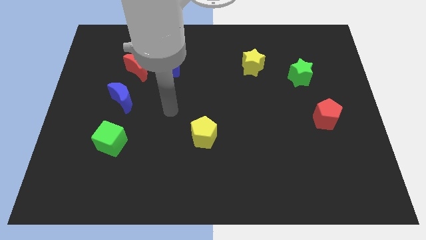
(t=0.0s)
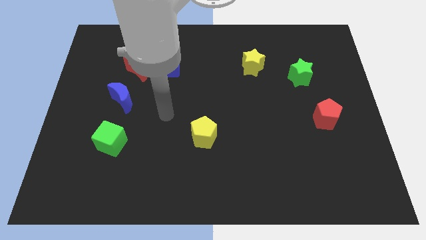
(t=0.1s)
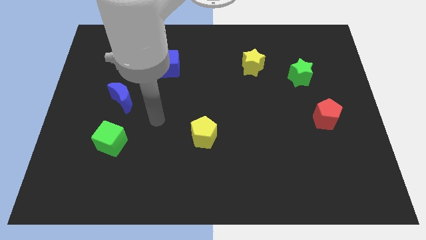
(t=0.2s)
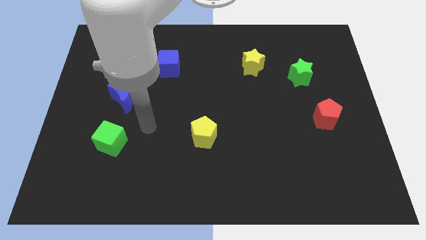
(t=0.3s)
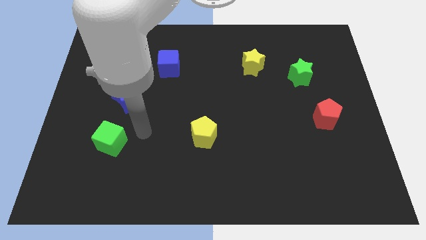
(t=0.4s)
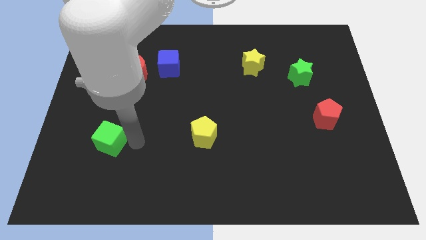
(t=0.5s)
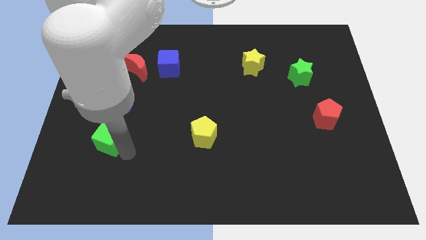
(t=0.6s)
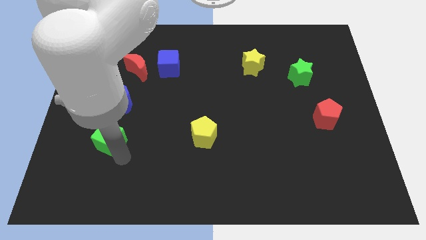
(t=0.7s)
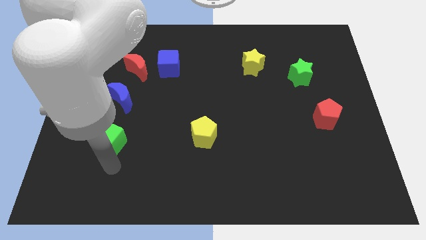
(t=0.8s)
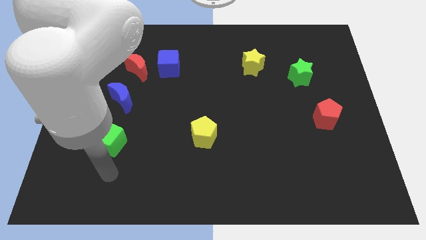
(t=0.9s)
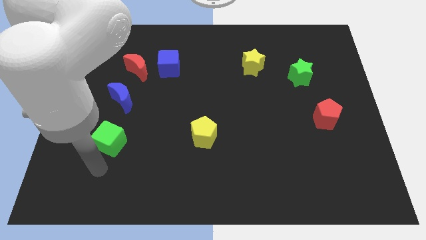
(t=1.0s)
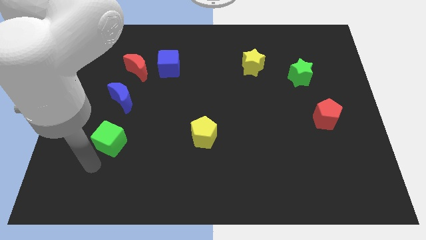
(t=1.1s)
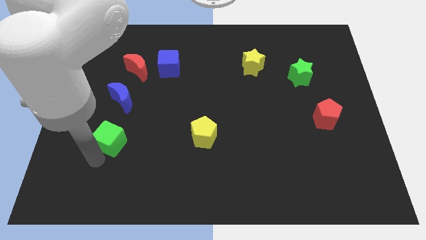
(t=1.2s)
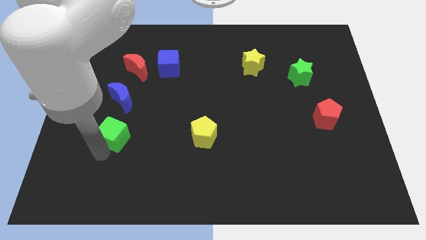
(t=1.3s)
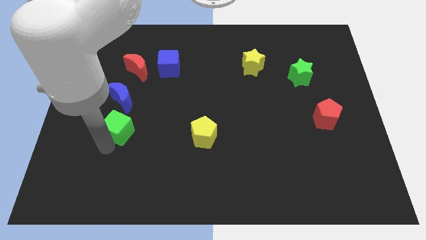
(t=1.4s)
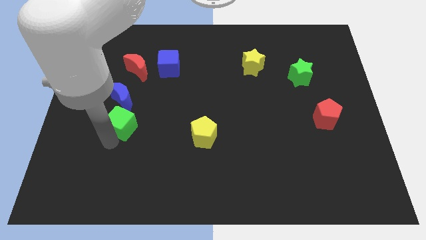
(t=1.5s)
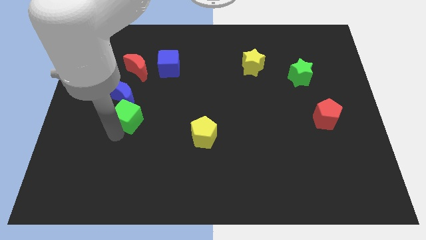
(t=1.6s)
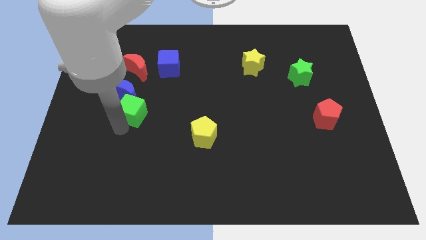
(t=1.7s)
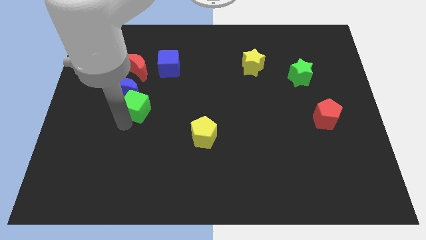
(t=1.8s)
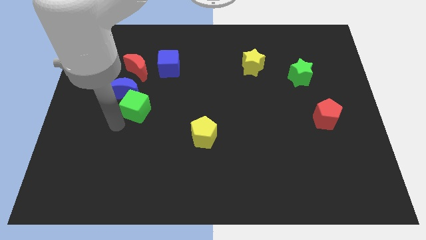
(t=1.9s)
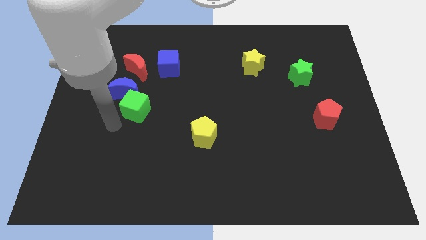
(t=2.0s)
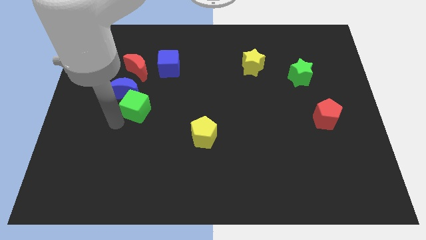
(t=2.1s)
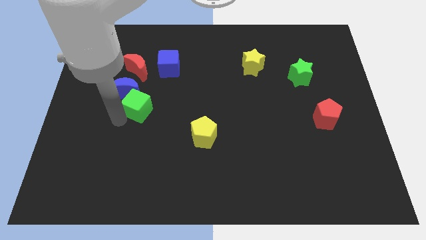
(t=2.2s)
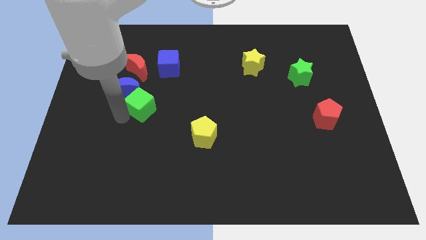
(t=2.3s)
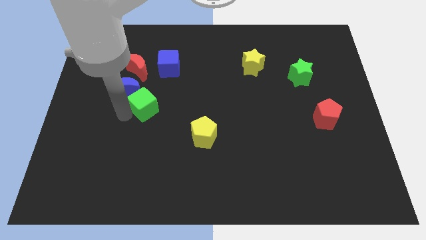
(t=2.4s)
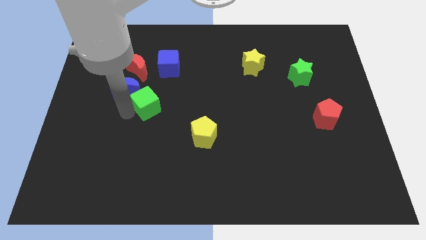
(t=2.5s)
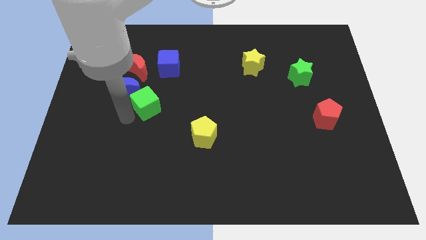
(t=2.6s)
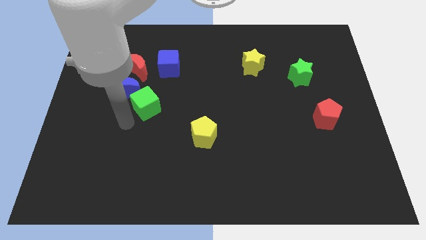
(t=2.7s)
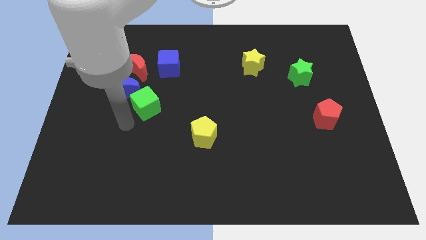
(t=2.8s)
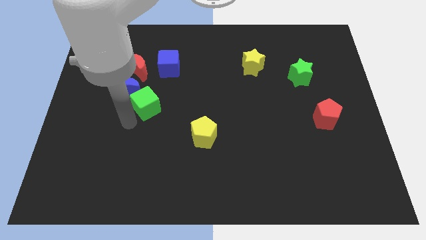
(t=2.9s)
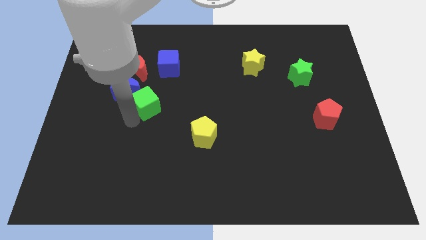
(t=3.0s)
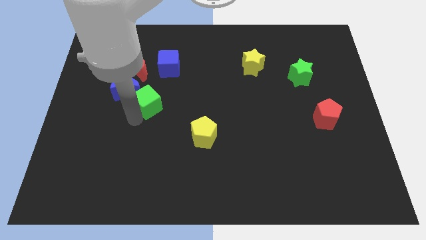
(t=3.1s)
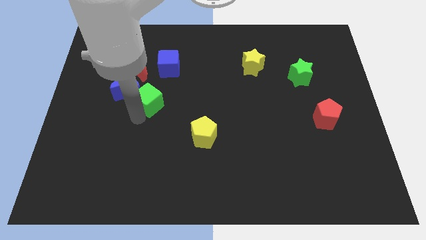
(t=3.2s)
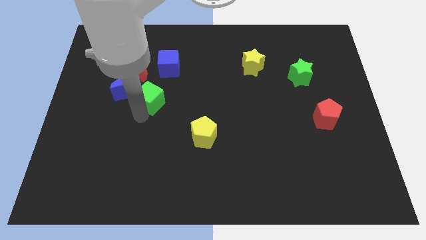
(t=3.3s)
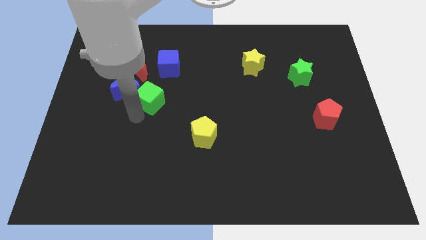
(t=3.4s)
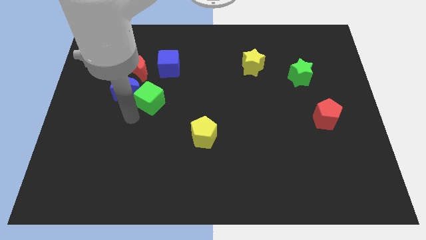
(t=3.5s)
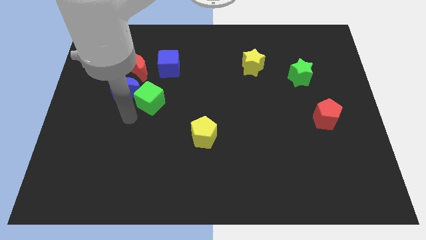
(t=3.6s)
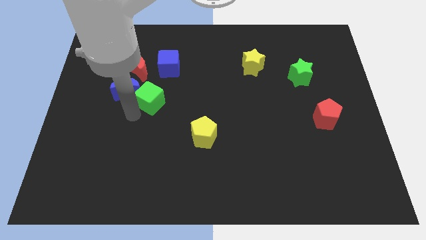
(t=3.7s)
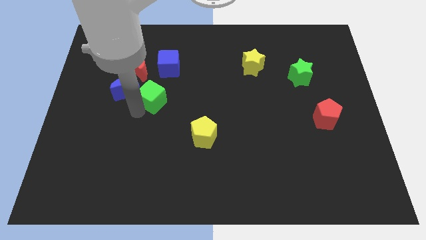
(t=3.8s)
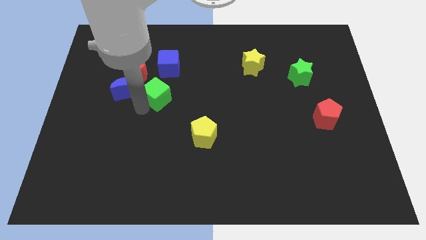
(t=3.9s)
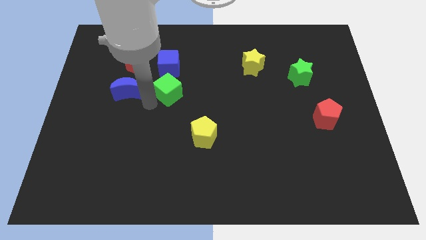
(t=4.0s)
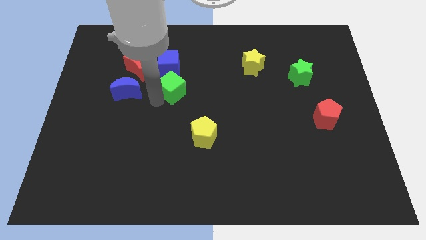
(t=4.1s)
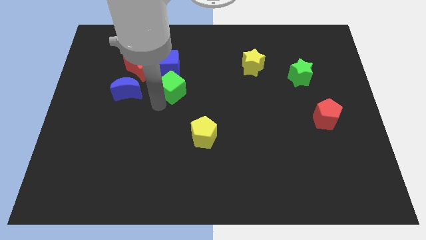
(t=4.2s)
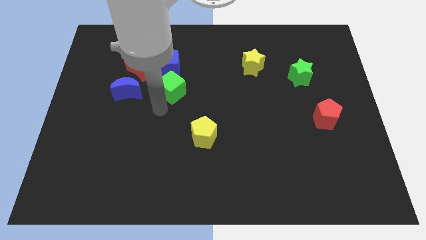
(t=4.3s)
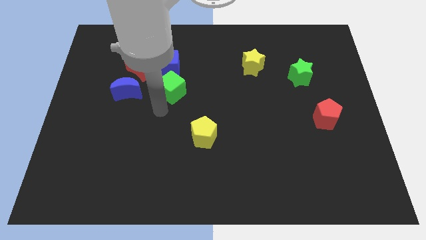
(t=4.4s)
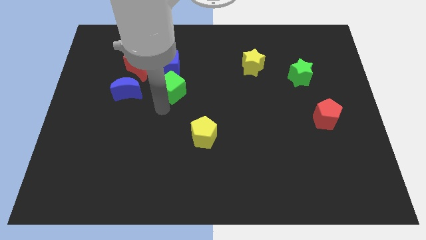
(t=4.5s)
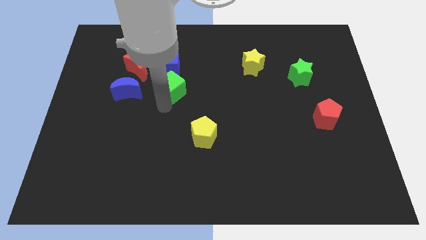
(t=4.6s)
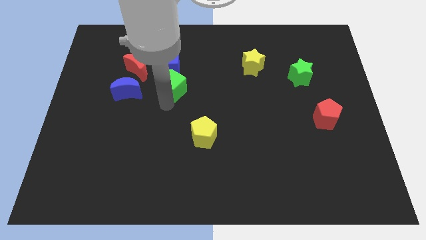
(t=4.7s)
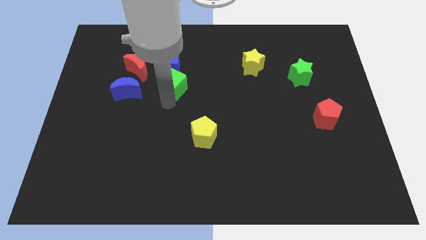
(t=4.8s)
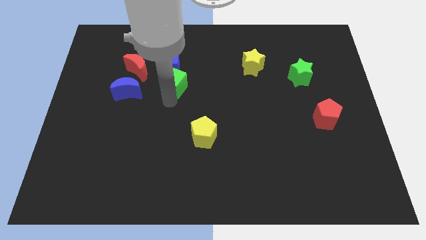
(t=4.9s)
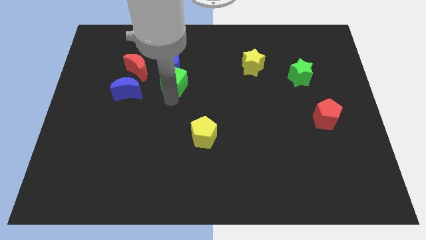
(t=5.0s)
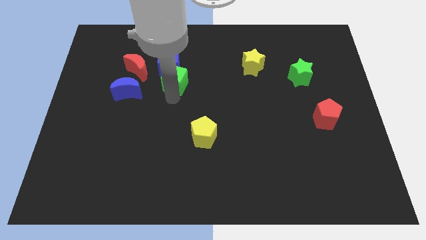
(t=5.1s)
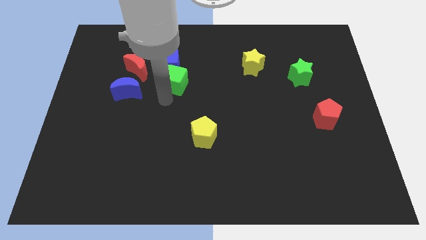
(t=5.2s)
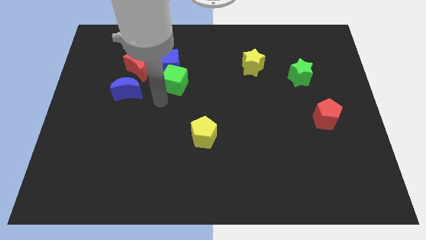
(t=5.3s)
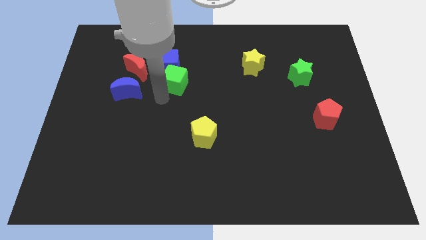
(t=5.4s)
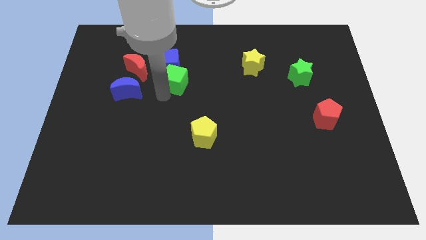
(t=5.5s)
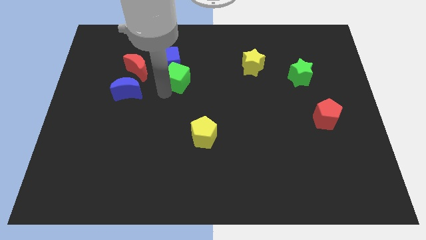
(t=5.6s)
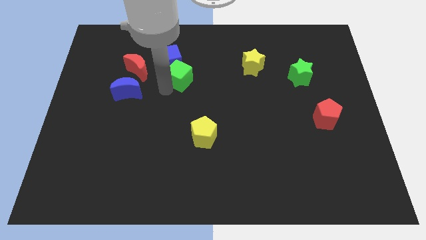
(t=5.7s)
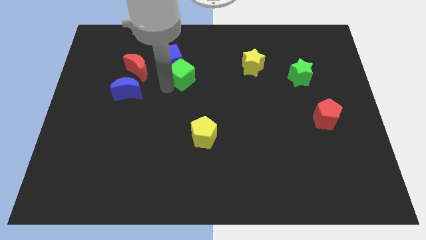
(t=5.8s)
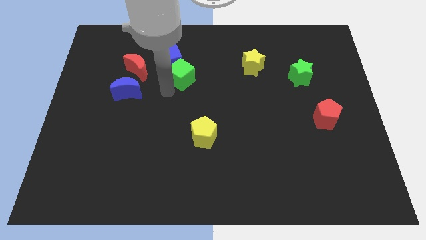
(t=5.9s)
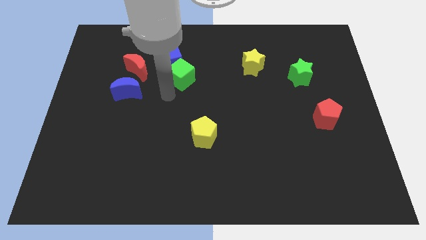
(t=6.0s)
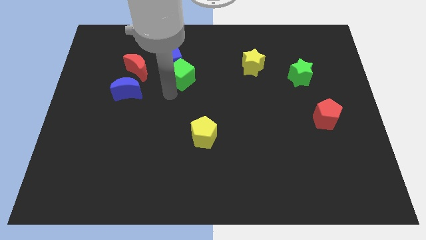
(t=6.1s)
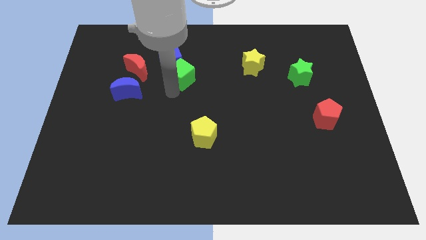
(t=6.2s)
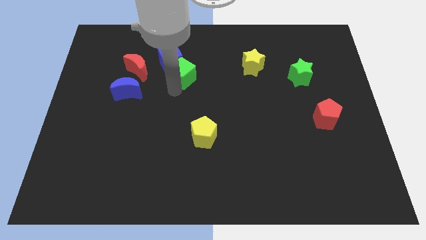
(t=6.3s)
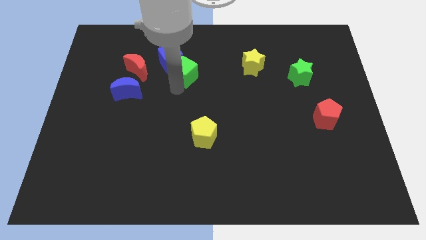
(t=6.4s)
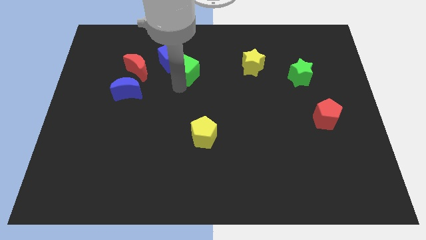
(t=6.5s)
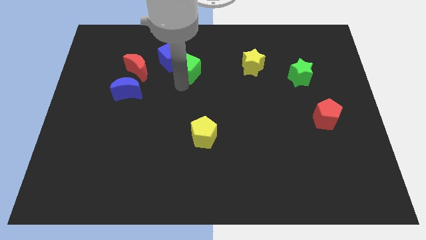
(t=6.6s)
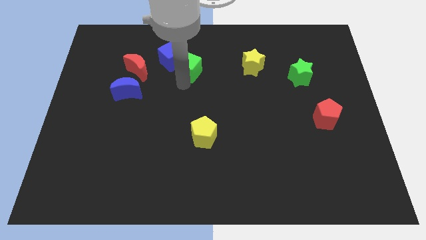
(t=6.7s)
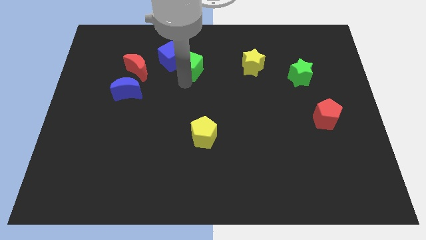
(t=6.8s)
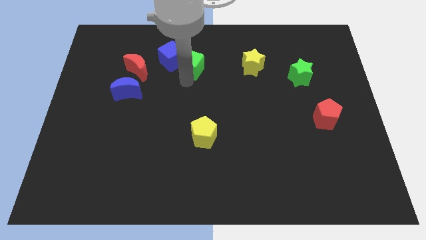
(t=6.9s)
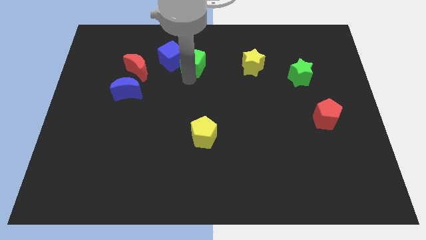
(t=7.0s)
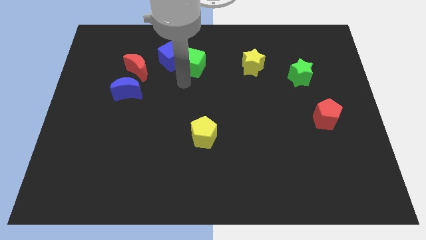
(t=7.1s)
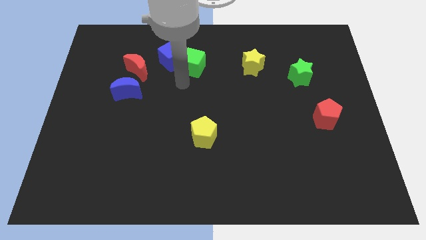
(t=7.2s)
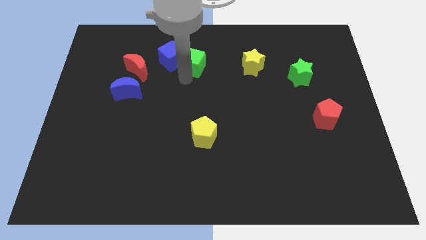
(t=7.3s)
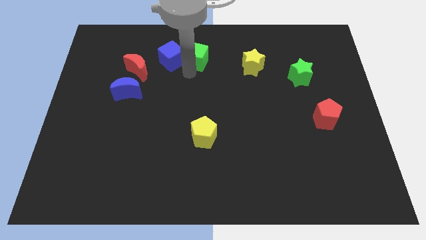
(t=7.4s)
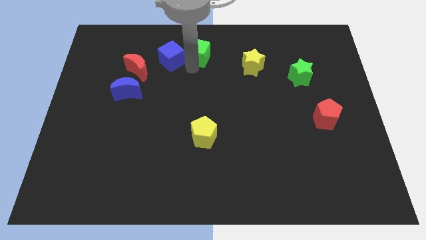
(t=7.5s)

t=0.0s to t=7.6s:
move the green cube to the top side
